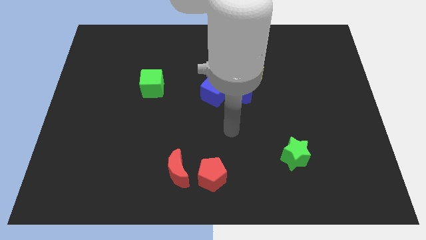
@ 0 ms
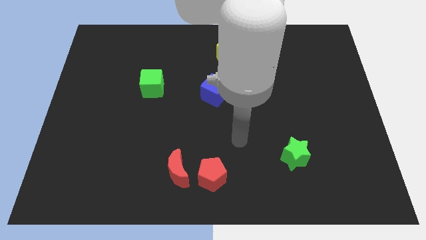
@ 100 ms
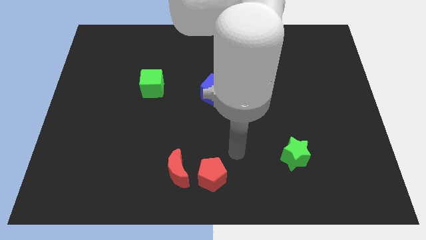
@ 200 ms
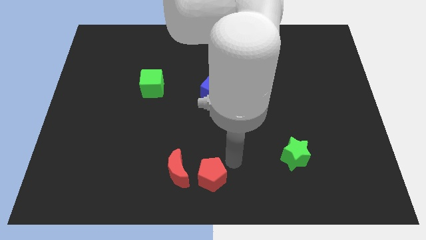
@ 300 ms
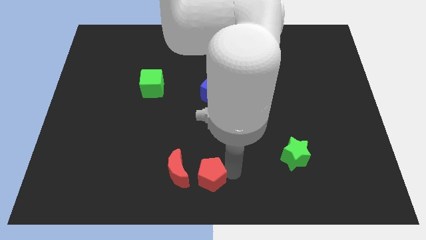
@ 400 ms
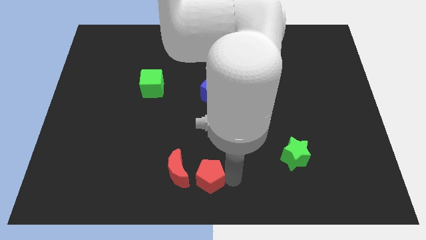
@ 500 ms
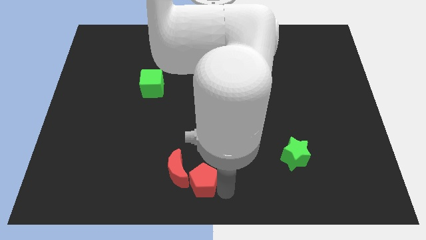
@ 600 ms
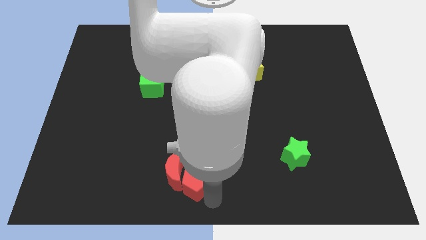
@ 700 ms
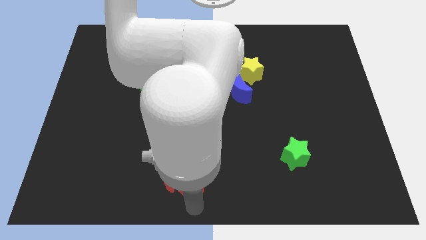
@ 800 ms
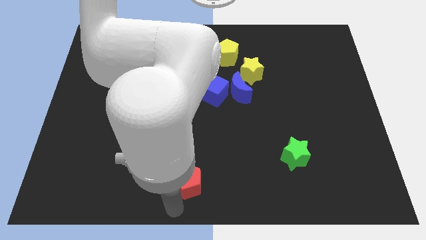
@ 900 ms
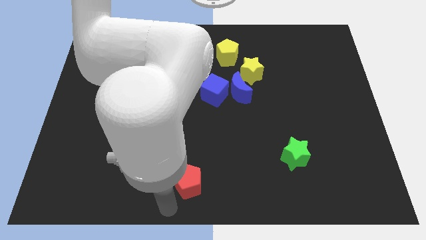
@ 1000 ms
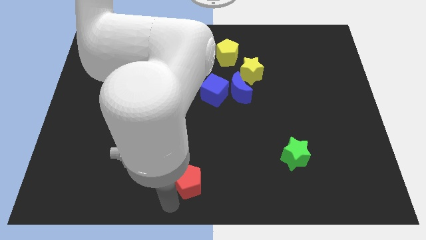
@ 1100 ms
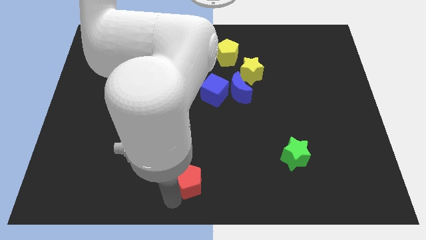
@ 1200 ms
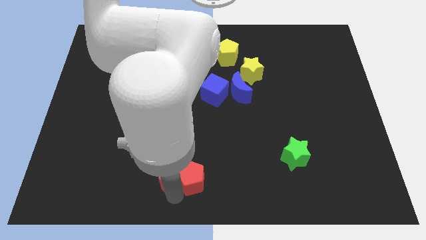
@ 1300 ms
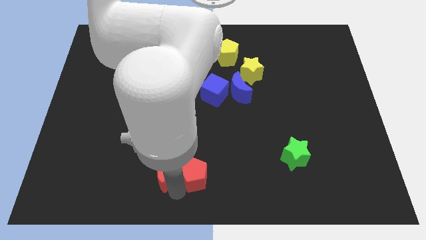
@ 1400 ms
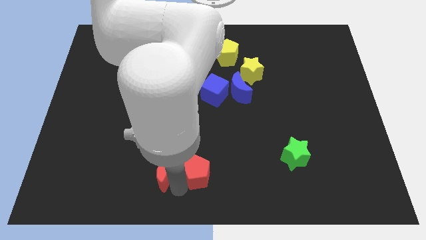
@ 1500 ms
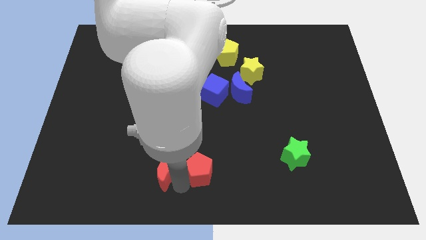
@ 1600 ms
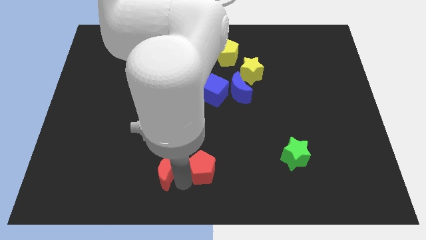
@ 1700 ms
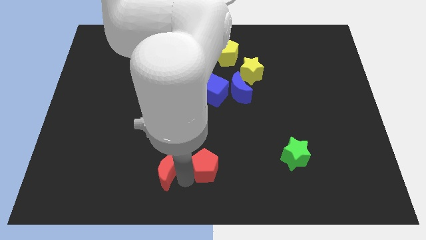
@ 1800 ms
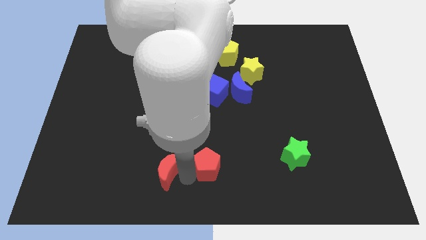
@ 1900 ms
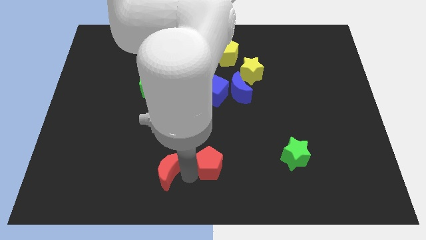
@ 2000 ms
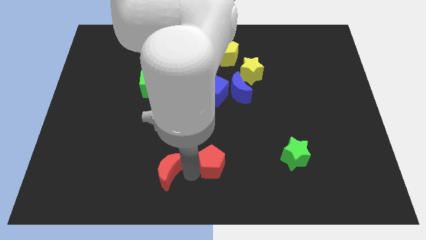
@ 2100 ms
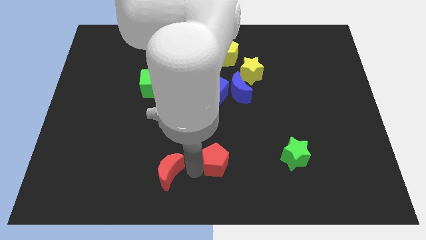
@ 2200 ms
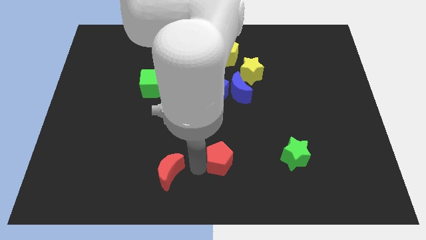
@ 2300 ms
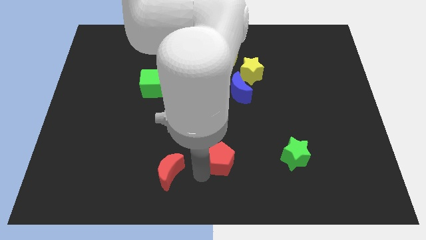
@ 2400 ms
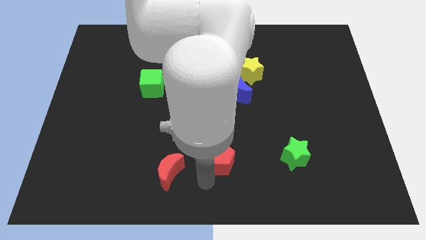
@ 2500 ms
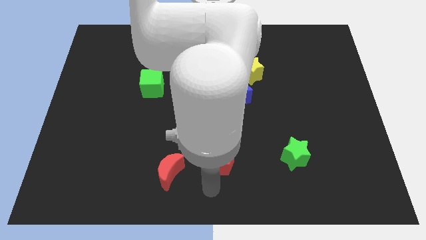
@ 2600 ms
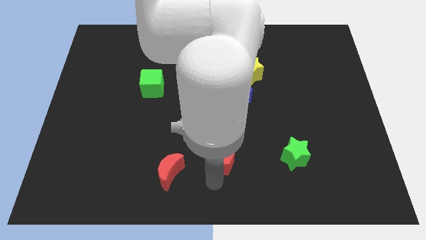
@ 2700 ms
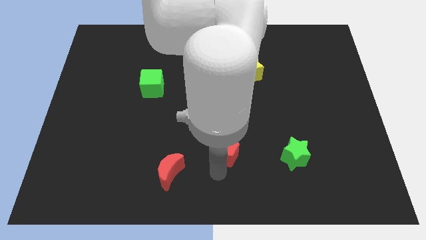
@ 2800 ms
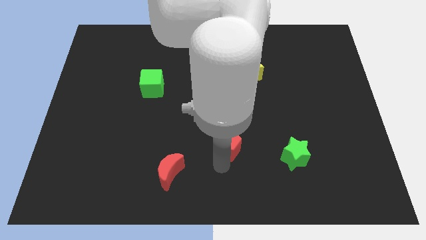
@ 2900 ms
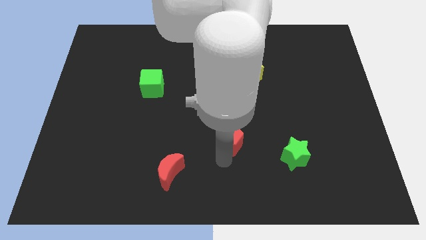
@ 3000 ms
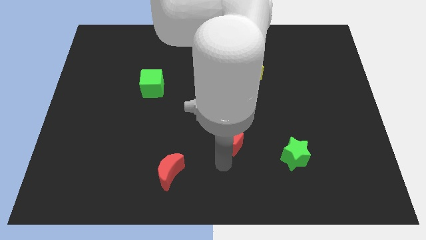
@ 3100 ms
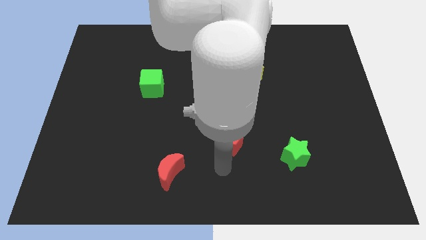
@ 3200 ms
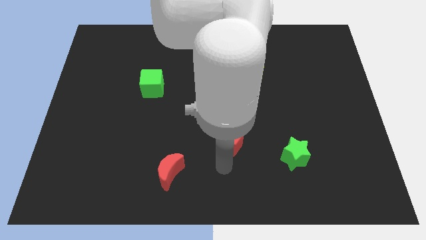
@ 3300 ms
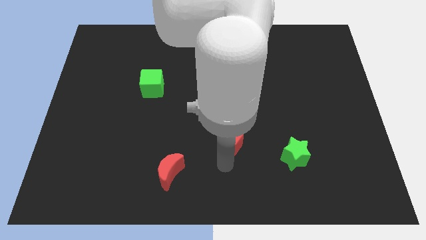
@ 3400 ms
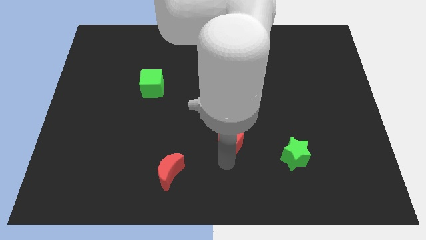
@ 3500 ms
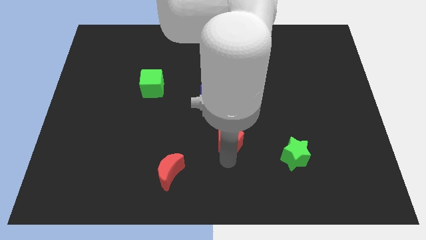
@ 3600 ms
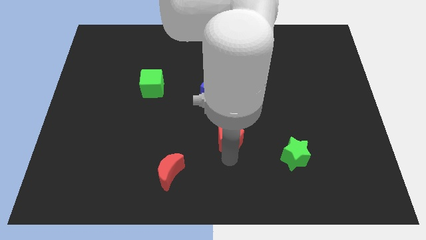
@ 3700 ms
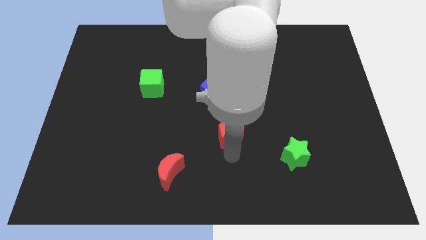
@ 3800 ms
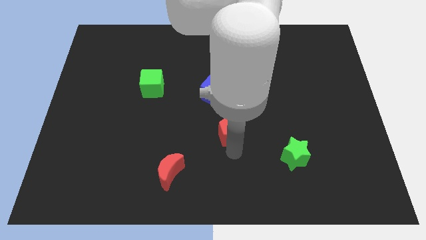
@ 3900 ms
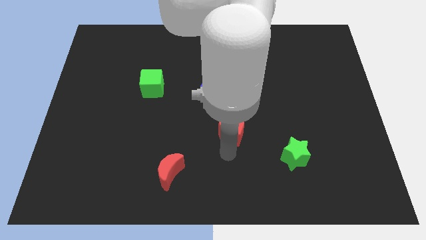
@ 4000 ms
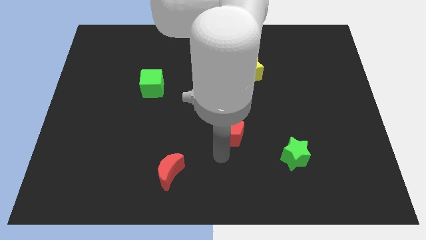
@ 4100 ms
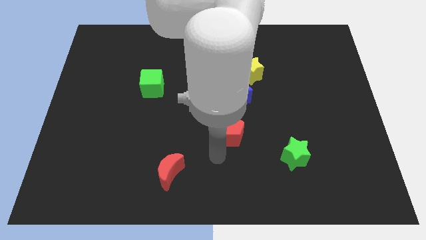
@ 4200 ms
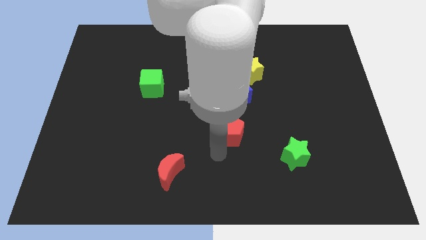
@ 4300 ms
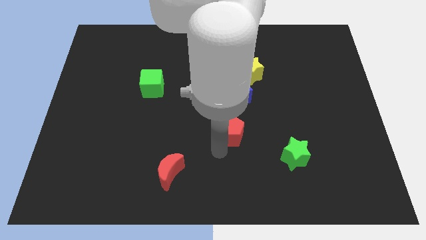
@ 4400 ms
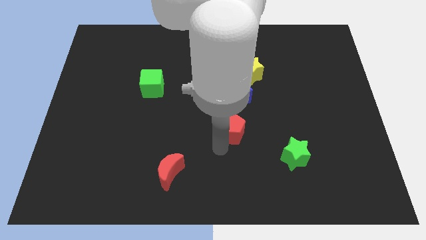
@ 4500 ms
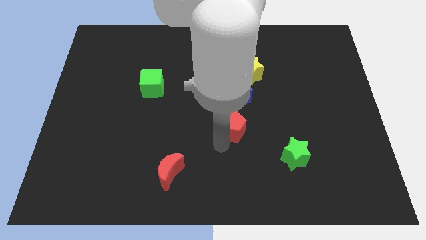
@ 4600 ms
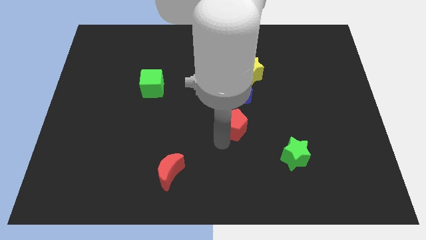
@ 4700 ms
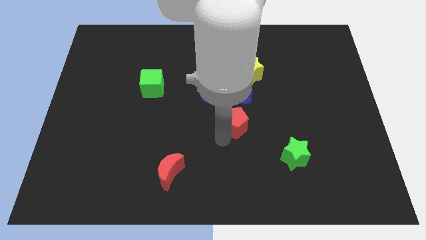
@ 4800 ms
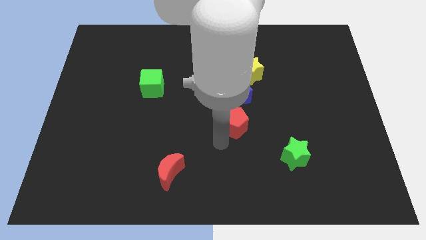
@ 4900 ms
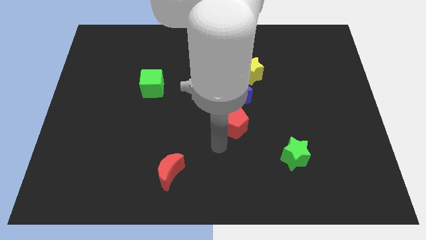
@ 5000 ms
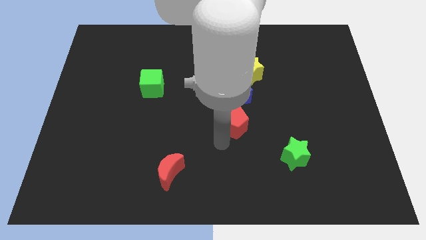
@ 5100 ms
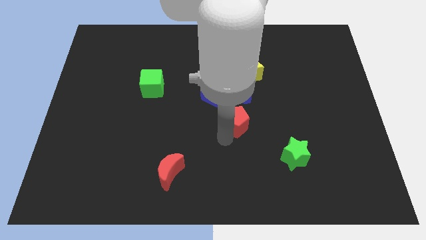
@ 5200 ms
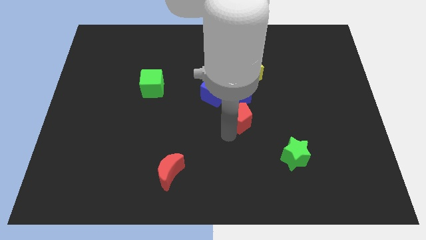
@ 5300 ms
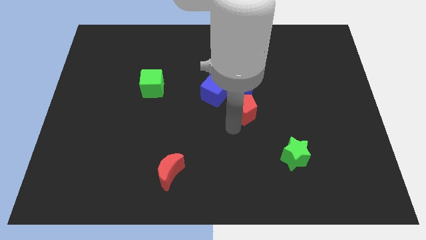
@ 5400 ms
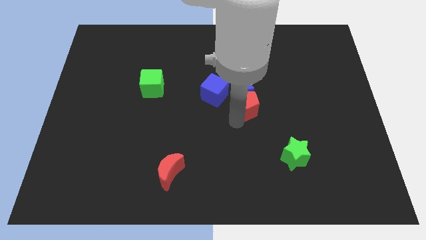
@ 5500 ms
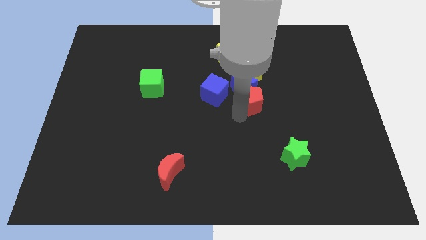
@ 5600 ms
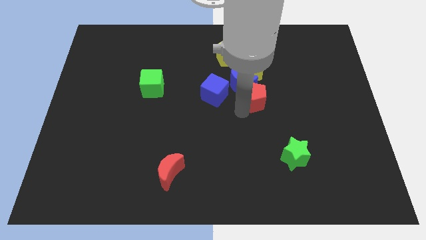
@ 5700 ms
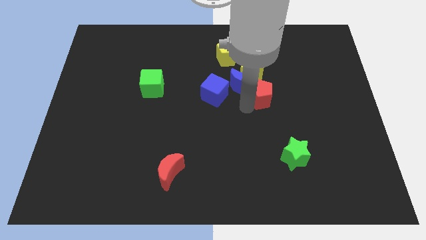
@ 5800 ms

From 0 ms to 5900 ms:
slide the red pentagon diagonally down and to the right of the yellow star

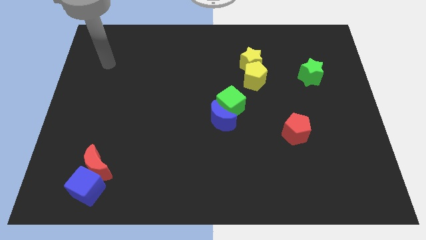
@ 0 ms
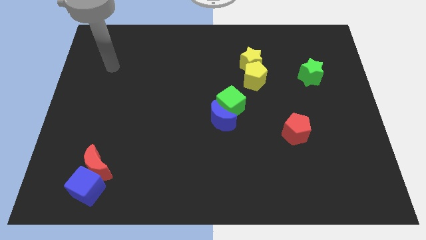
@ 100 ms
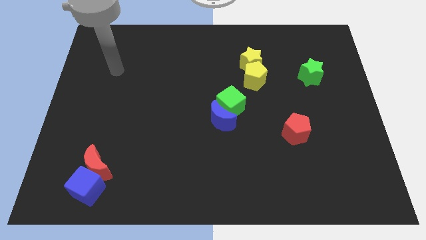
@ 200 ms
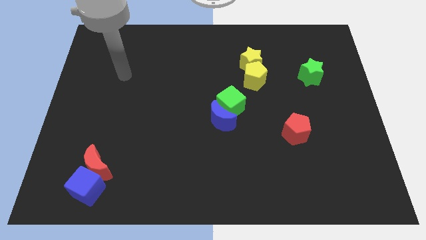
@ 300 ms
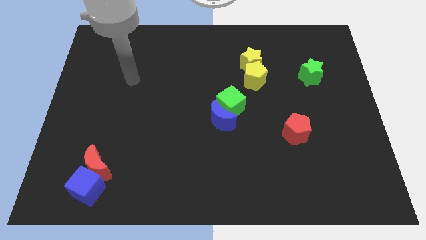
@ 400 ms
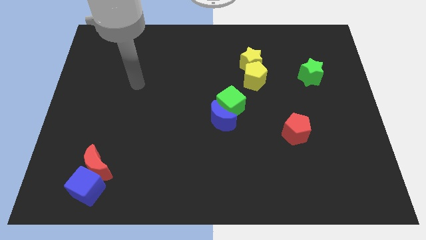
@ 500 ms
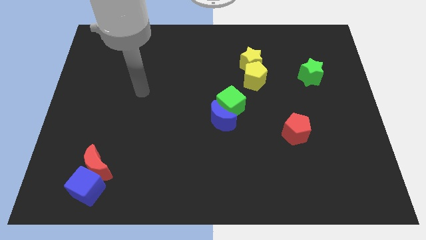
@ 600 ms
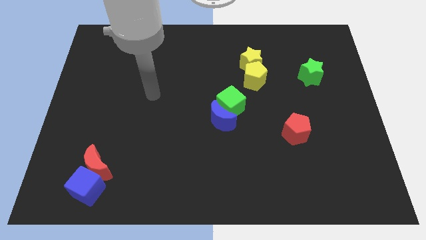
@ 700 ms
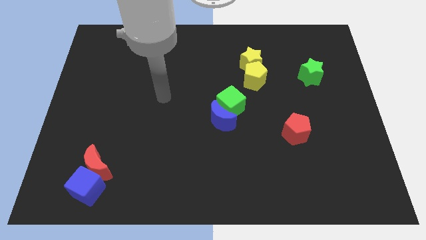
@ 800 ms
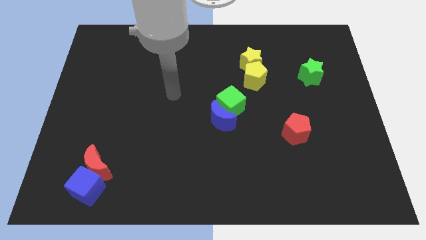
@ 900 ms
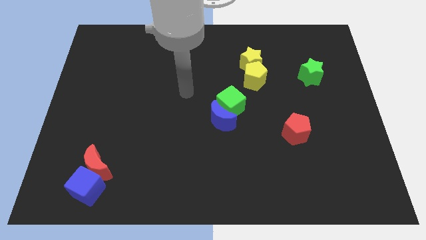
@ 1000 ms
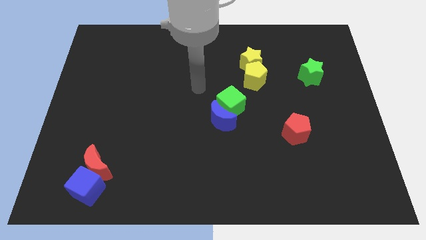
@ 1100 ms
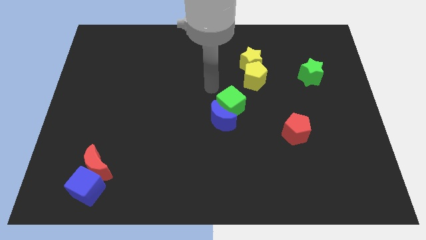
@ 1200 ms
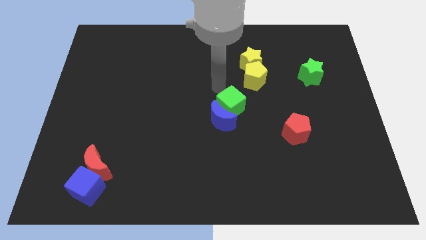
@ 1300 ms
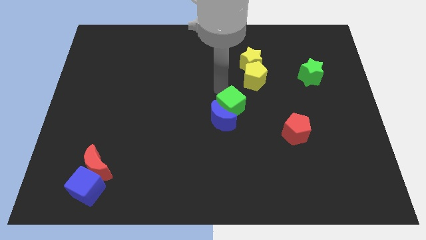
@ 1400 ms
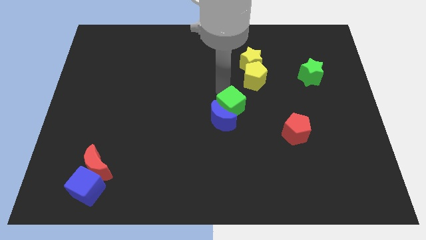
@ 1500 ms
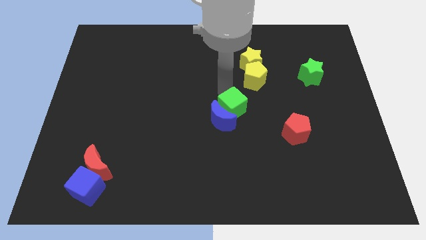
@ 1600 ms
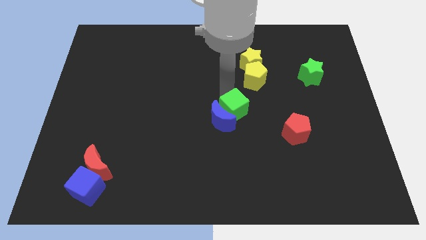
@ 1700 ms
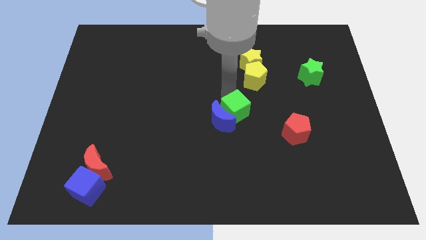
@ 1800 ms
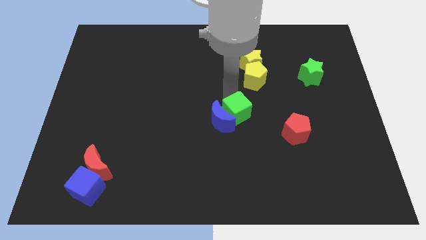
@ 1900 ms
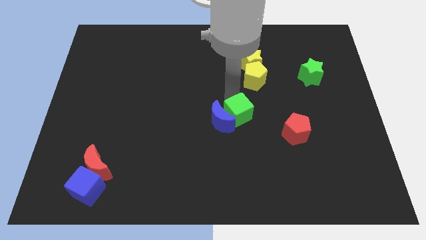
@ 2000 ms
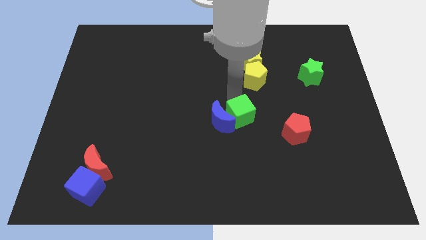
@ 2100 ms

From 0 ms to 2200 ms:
slide the green cube to the bottom right of the blue moon
